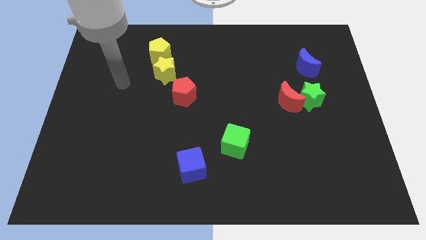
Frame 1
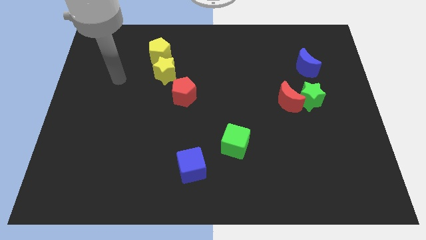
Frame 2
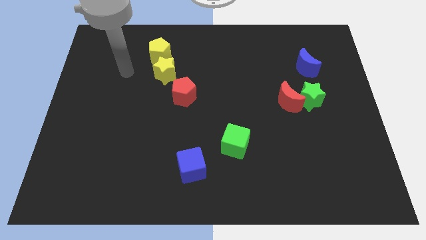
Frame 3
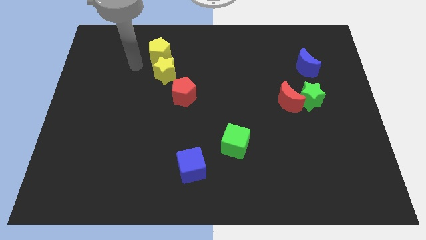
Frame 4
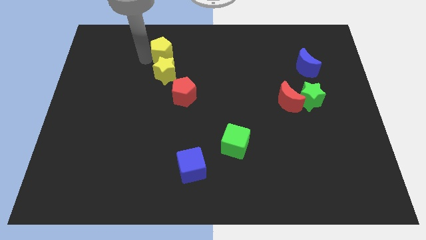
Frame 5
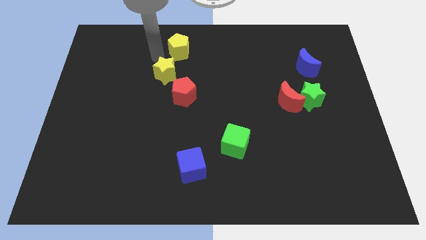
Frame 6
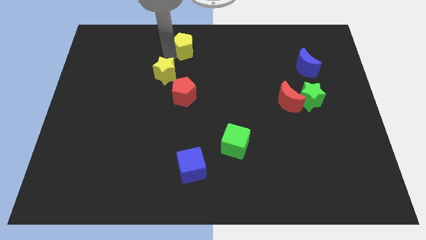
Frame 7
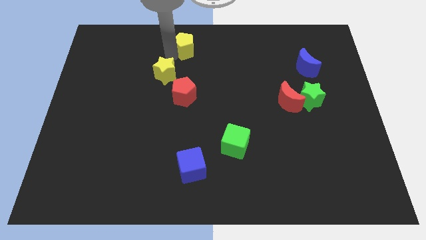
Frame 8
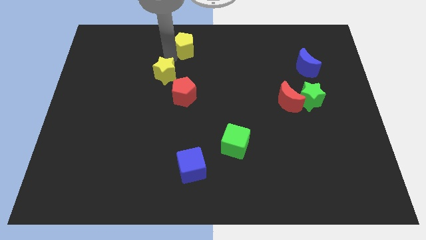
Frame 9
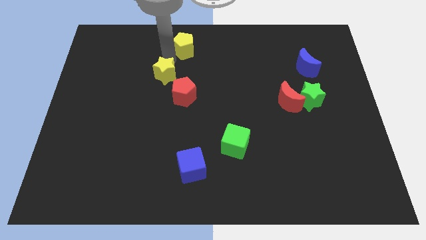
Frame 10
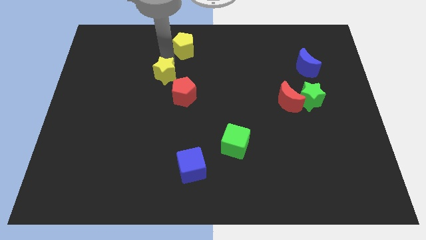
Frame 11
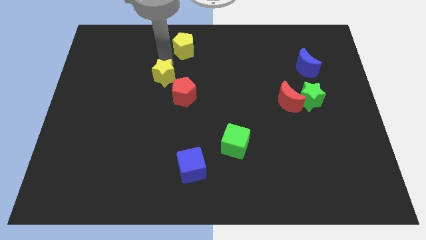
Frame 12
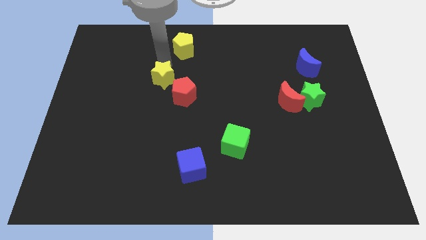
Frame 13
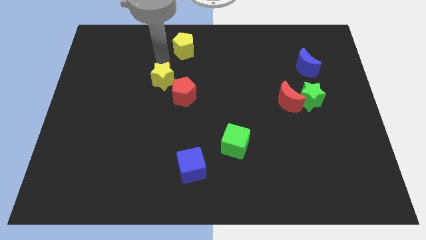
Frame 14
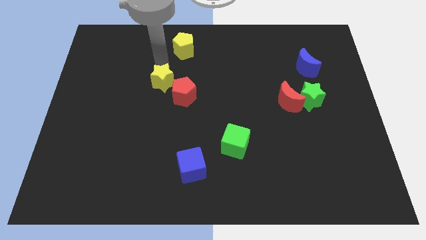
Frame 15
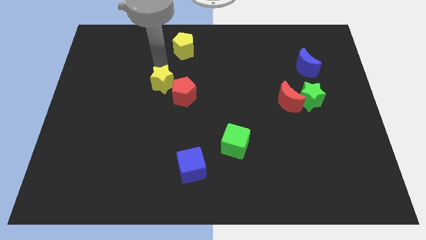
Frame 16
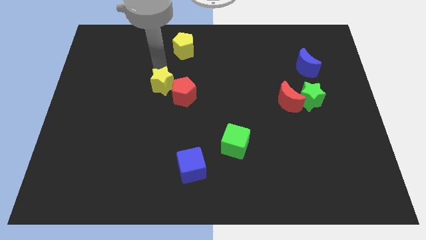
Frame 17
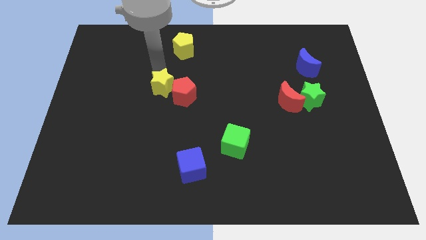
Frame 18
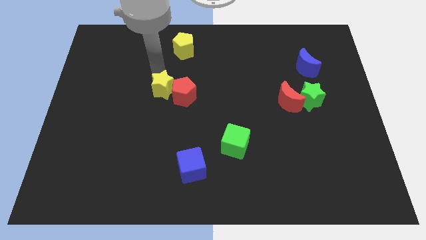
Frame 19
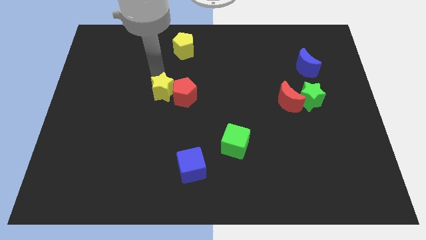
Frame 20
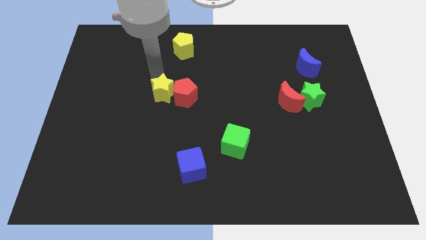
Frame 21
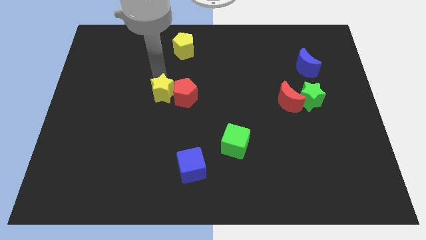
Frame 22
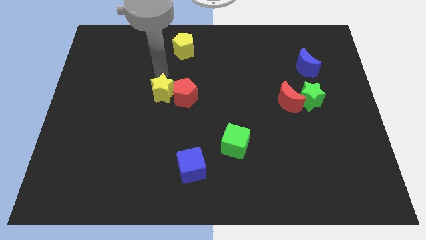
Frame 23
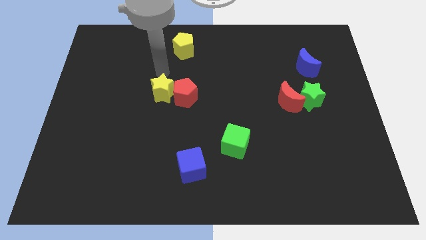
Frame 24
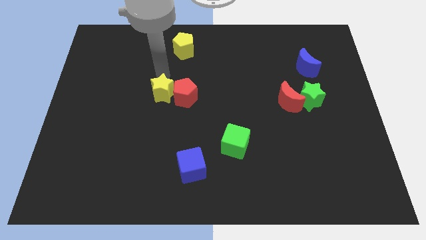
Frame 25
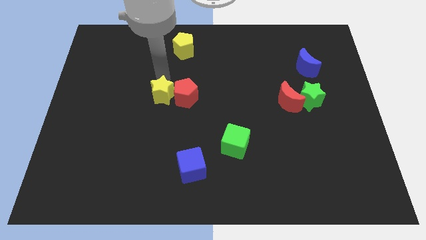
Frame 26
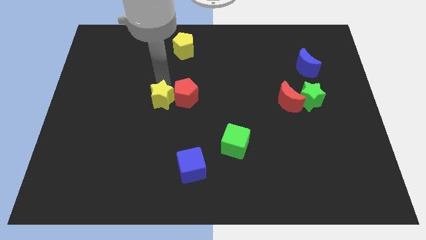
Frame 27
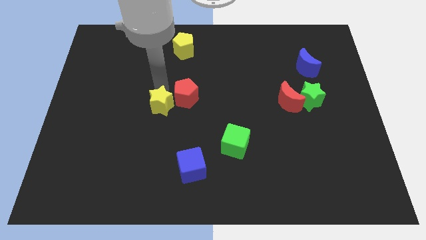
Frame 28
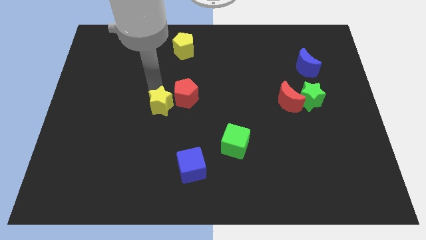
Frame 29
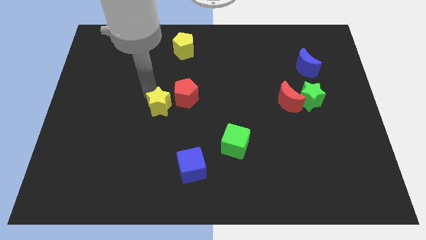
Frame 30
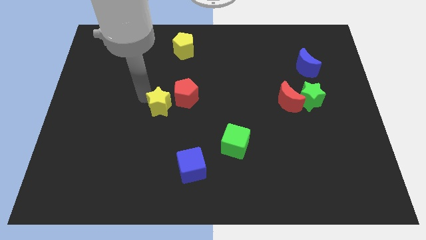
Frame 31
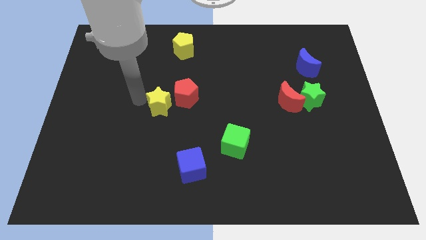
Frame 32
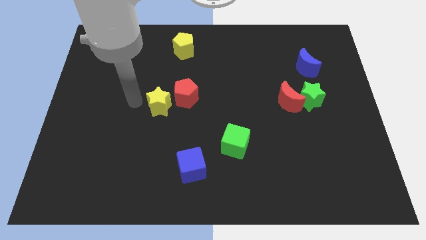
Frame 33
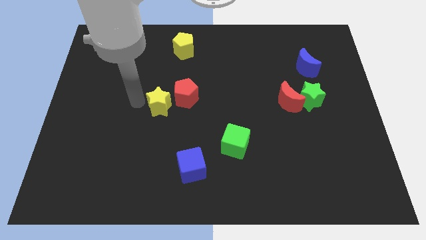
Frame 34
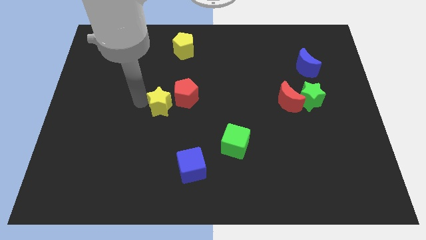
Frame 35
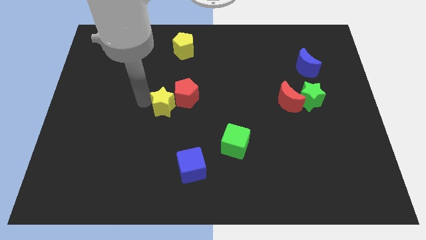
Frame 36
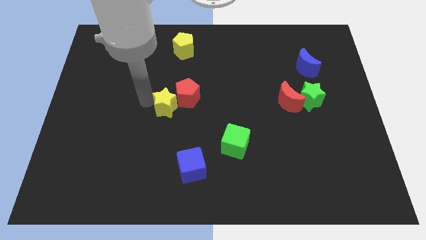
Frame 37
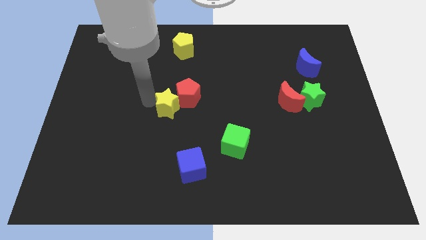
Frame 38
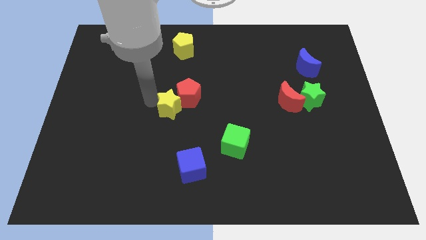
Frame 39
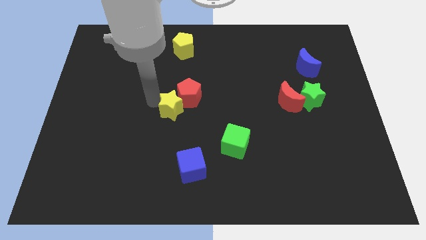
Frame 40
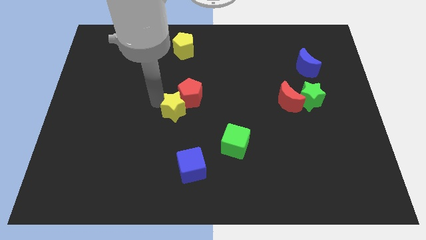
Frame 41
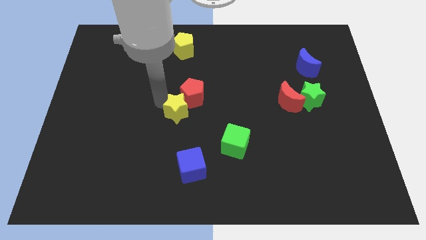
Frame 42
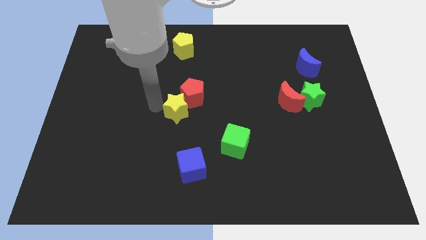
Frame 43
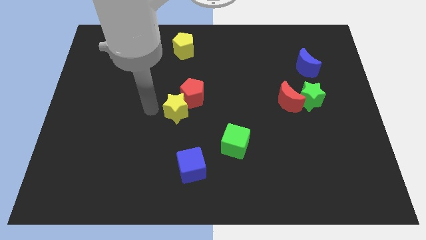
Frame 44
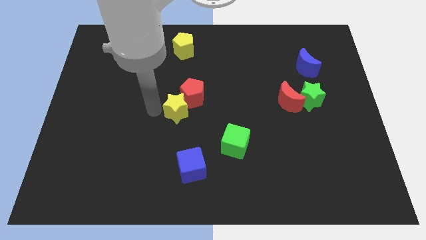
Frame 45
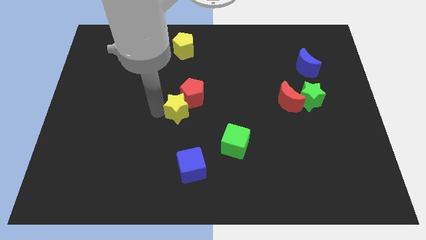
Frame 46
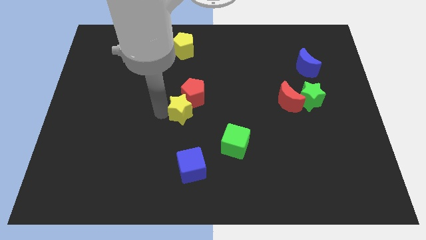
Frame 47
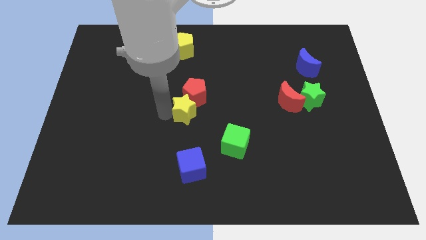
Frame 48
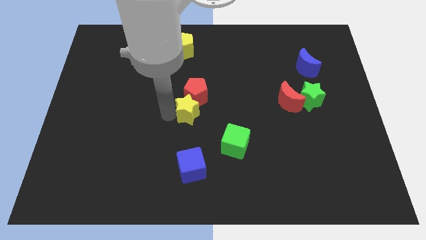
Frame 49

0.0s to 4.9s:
put the yellow star to the bottom right of the red pentagon

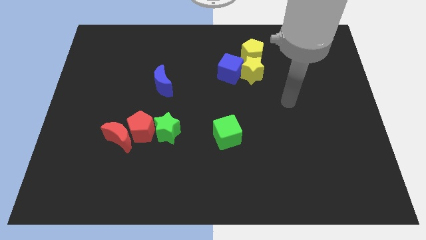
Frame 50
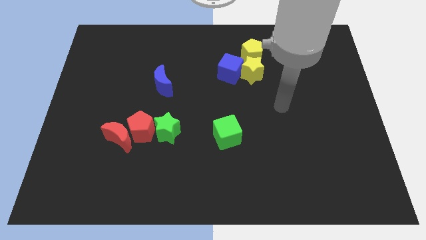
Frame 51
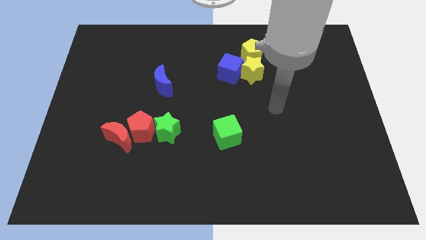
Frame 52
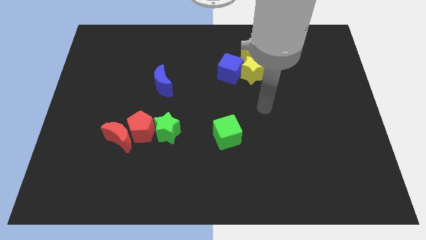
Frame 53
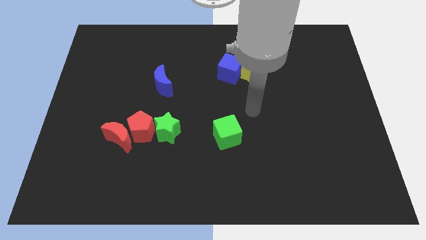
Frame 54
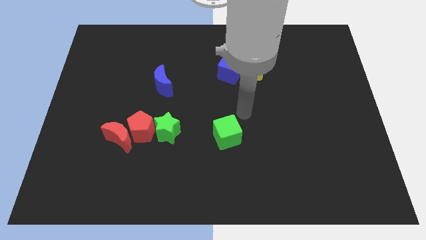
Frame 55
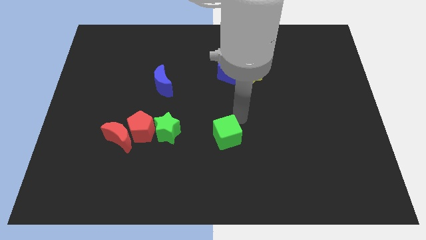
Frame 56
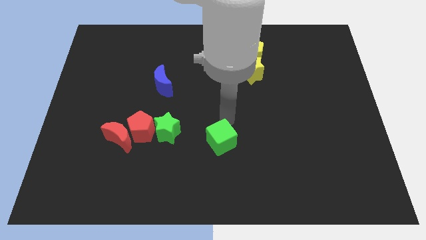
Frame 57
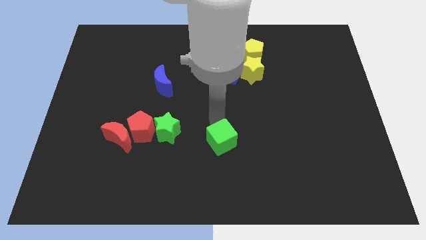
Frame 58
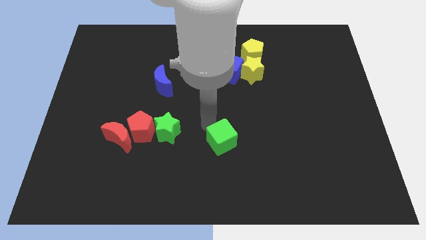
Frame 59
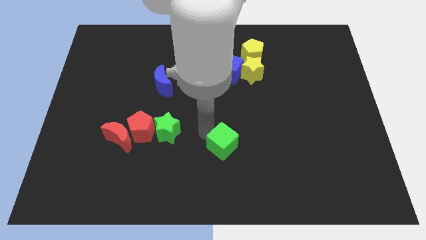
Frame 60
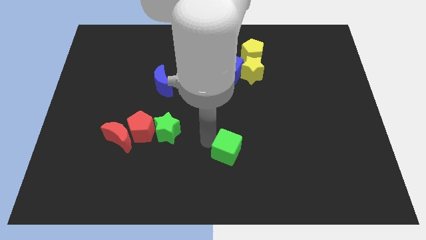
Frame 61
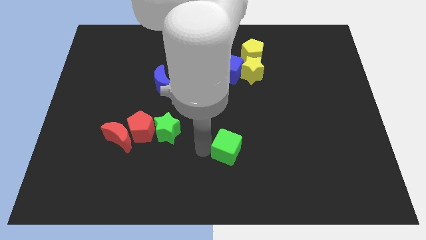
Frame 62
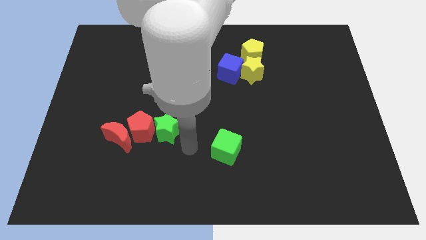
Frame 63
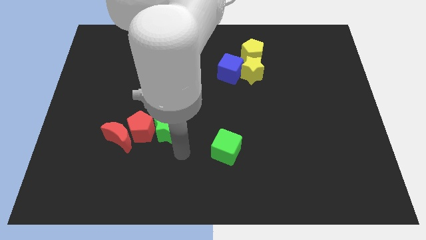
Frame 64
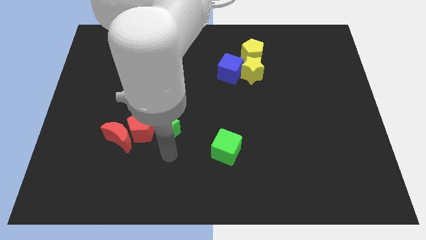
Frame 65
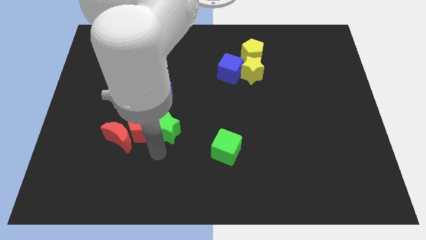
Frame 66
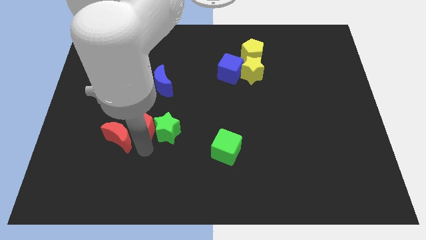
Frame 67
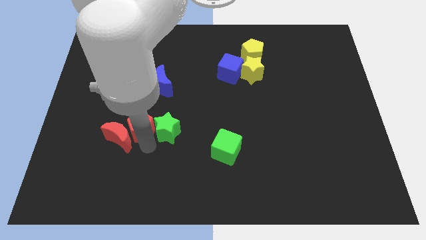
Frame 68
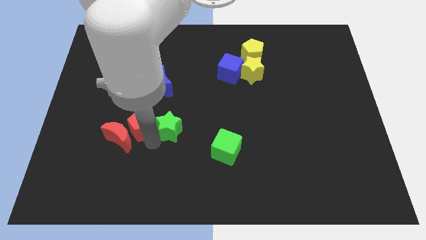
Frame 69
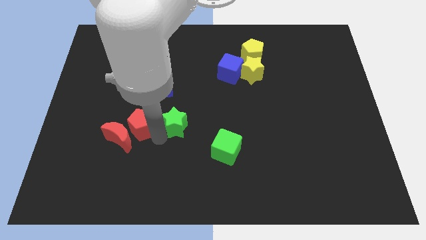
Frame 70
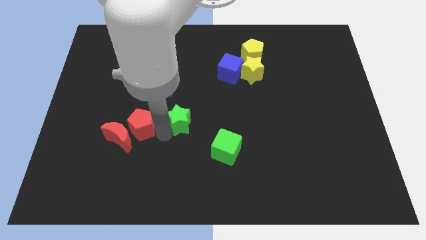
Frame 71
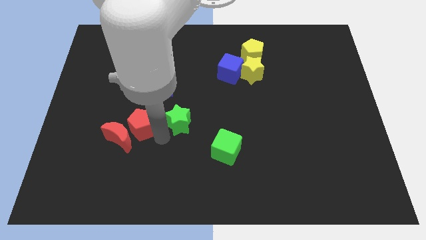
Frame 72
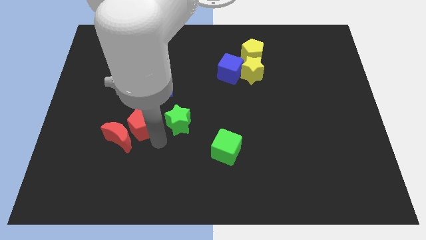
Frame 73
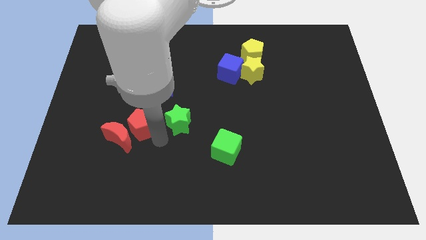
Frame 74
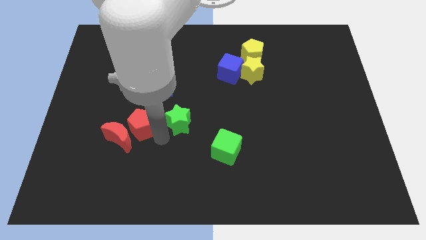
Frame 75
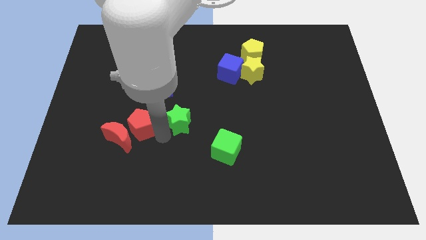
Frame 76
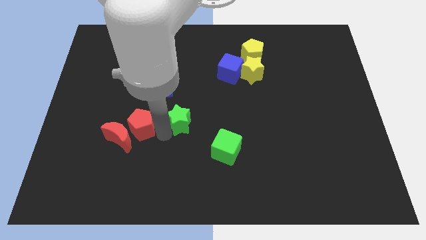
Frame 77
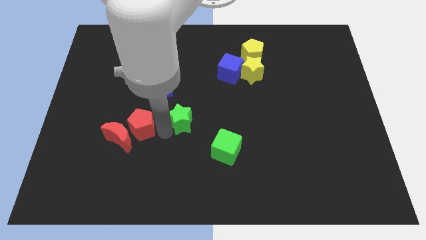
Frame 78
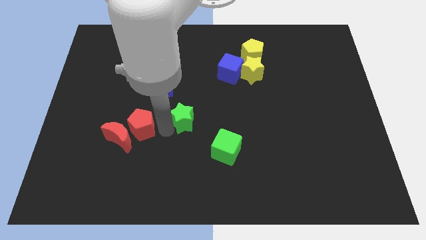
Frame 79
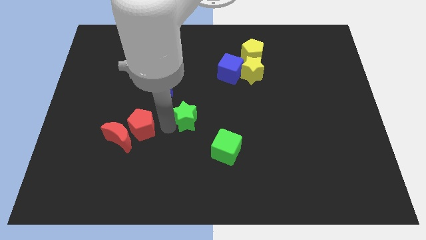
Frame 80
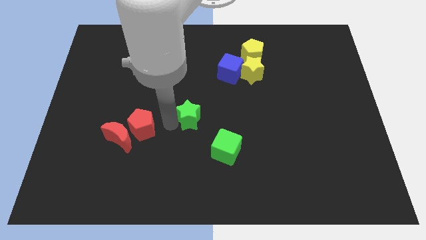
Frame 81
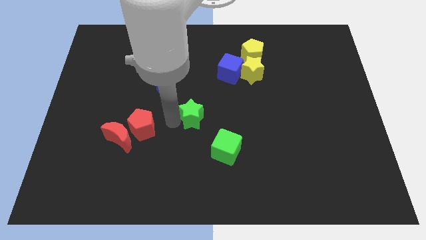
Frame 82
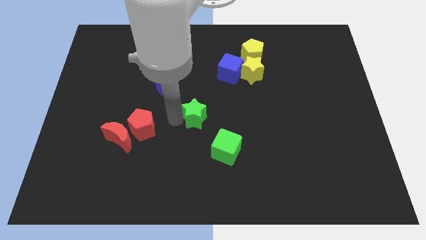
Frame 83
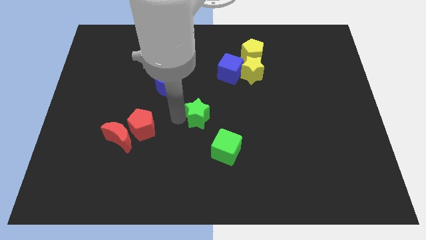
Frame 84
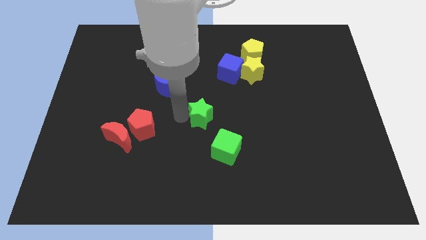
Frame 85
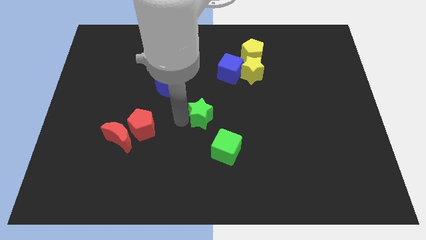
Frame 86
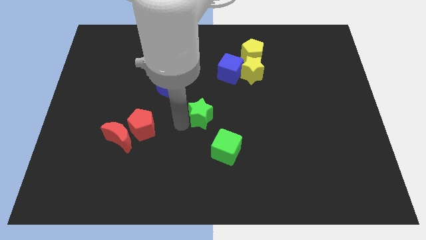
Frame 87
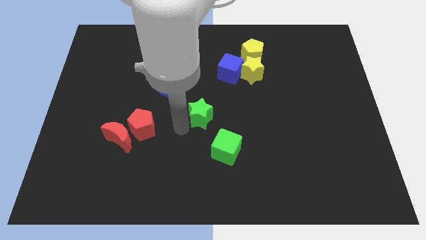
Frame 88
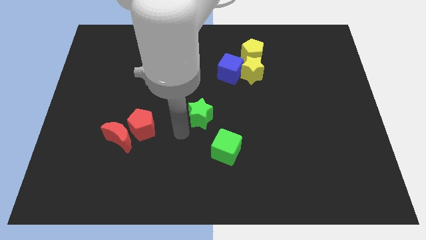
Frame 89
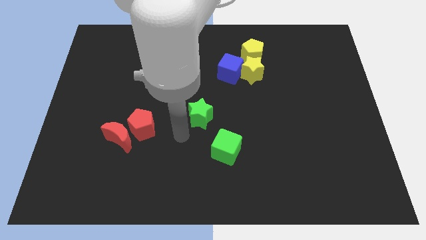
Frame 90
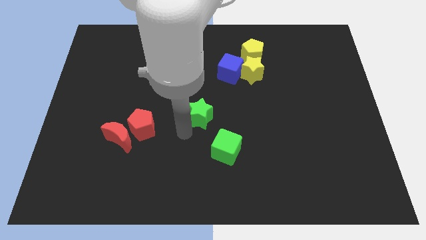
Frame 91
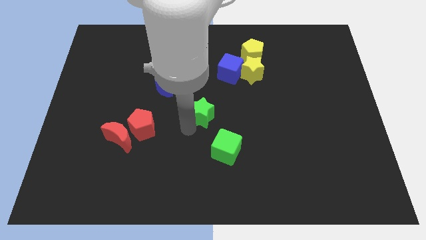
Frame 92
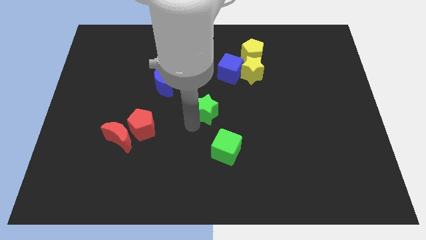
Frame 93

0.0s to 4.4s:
slide the green star above the green cube
